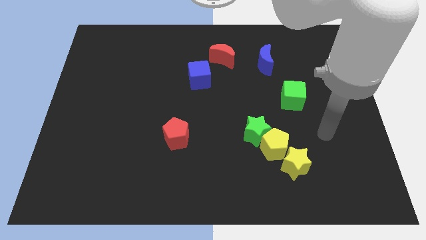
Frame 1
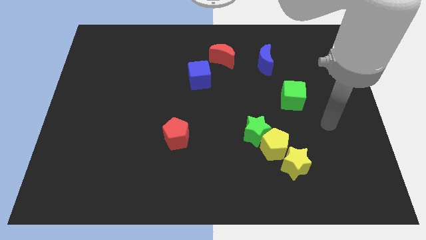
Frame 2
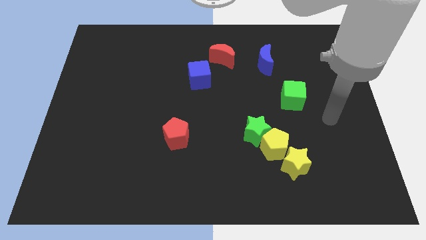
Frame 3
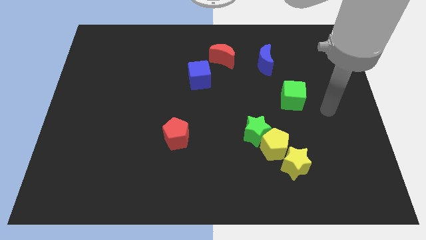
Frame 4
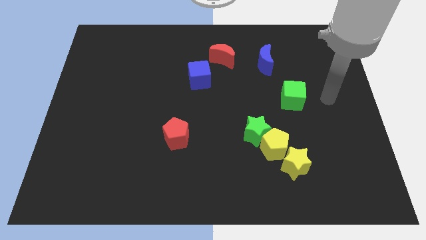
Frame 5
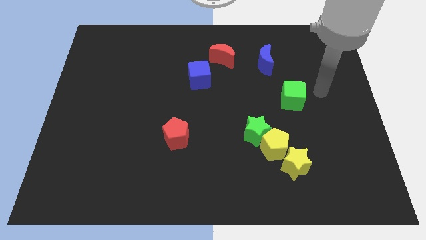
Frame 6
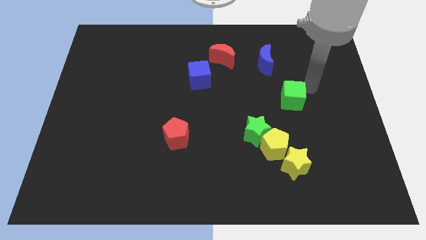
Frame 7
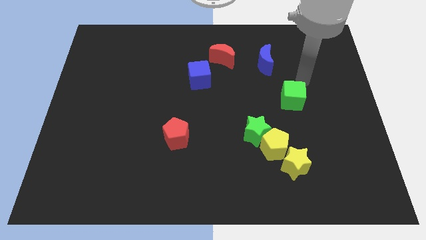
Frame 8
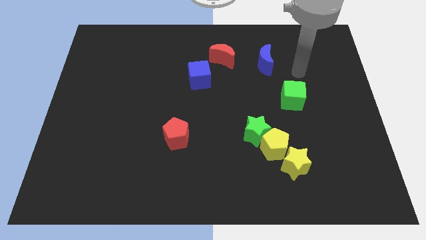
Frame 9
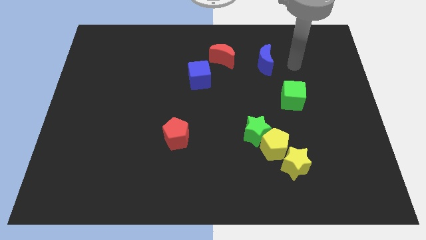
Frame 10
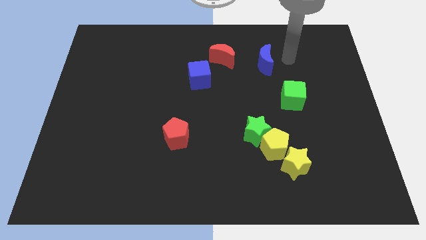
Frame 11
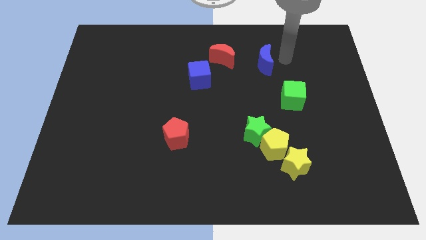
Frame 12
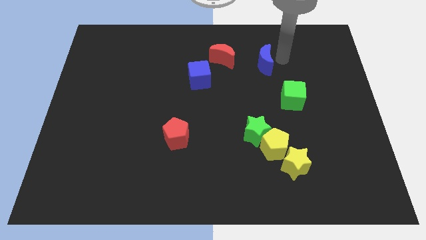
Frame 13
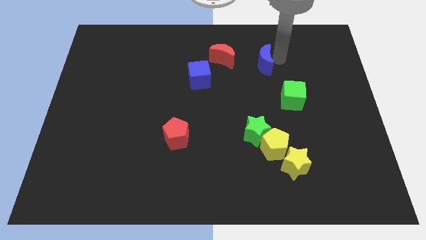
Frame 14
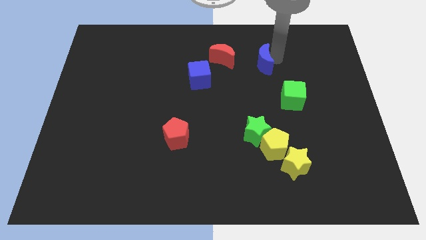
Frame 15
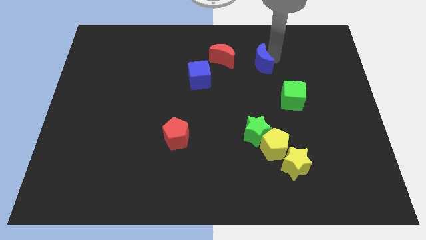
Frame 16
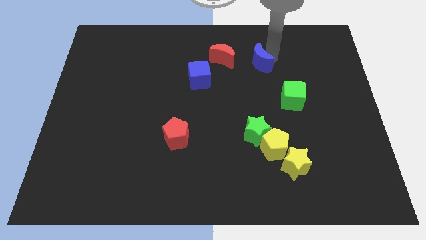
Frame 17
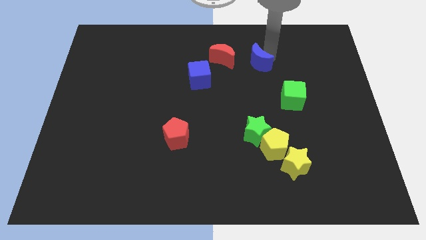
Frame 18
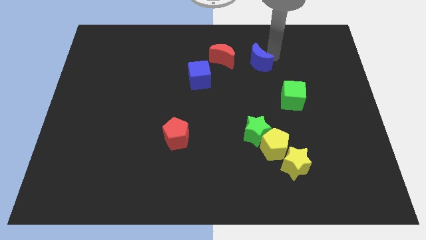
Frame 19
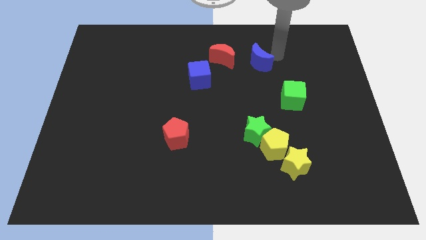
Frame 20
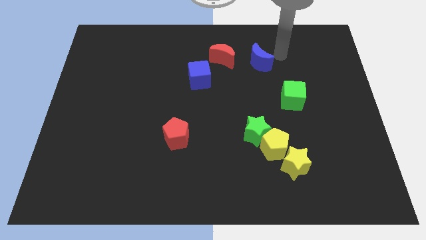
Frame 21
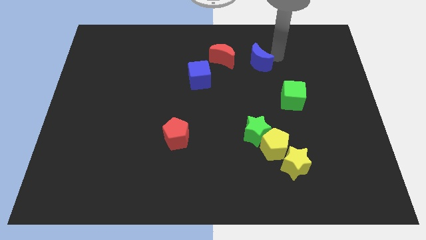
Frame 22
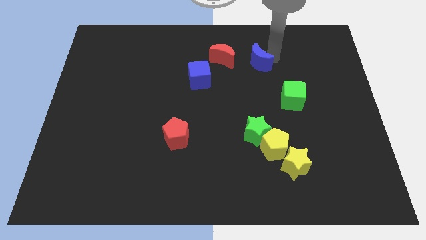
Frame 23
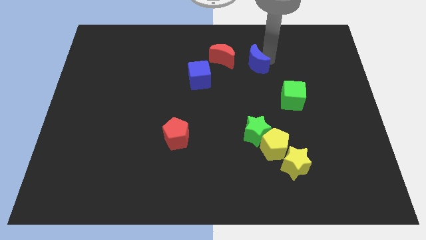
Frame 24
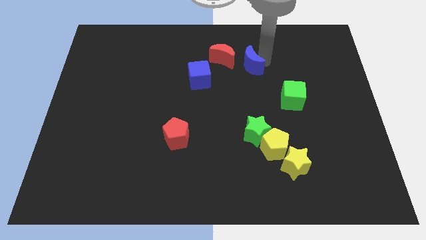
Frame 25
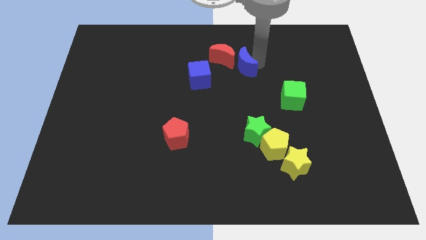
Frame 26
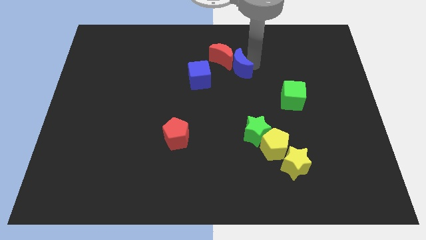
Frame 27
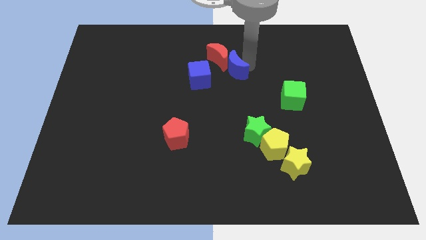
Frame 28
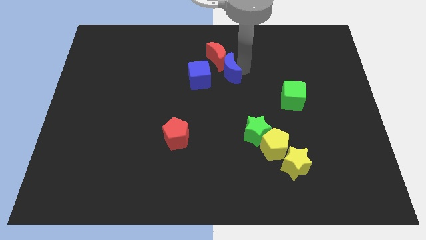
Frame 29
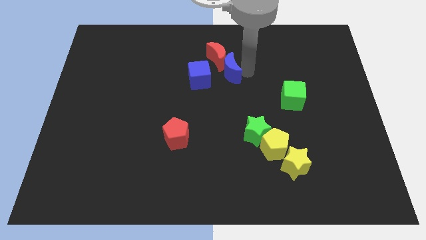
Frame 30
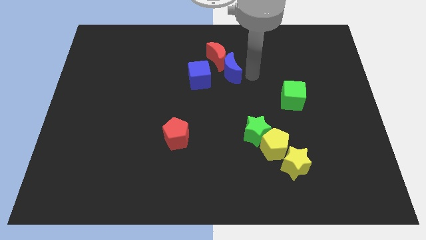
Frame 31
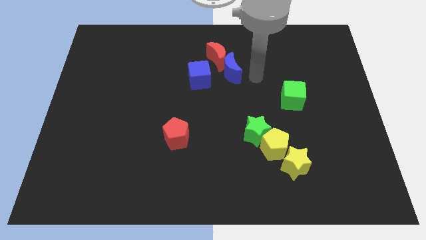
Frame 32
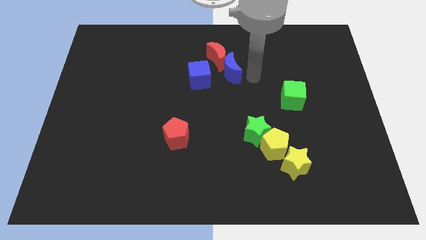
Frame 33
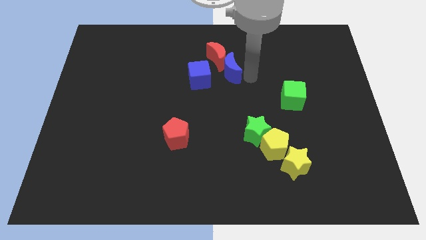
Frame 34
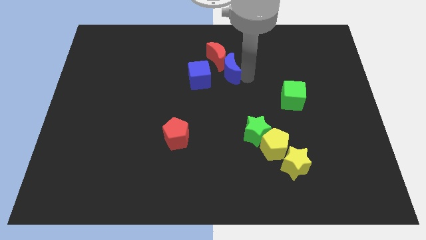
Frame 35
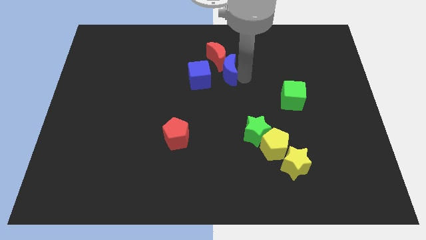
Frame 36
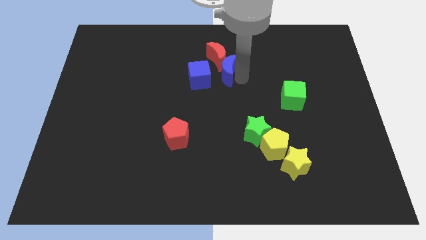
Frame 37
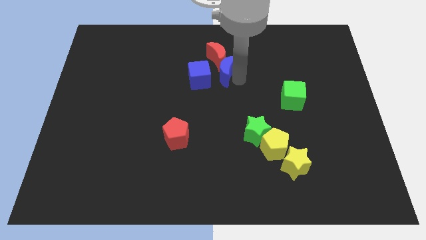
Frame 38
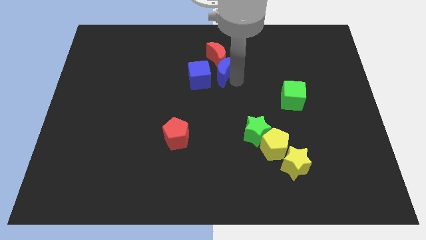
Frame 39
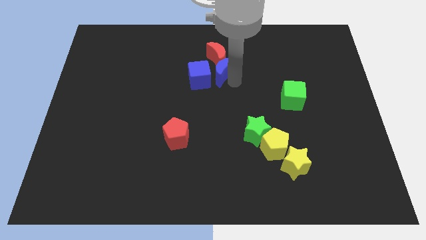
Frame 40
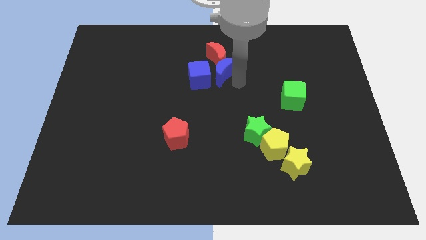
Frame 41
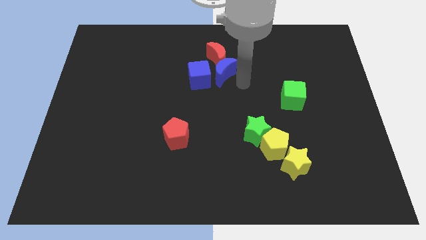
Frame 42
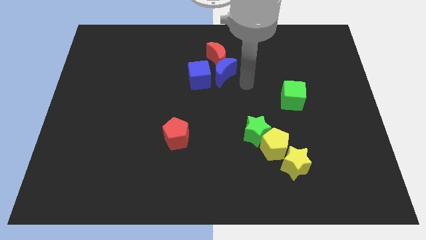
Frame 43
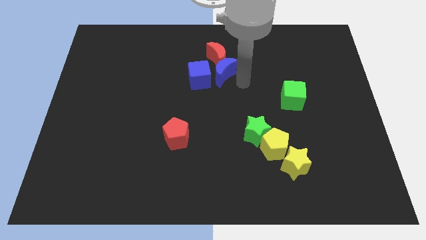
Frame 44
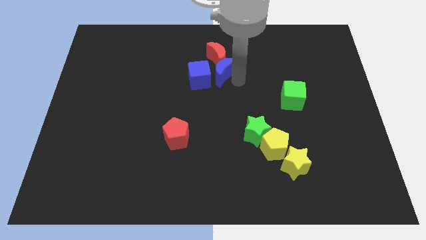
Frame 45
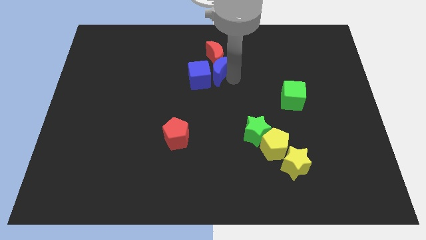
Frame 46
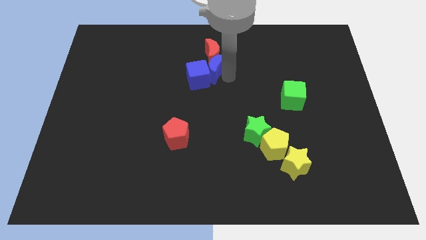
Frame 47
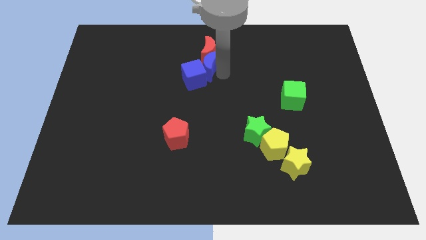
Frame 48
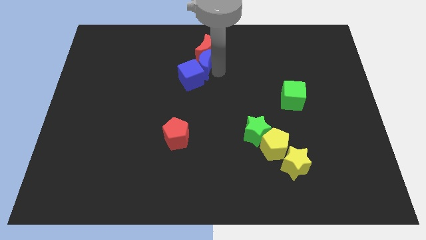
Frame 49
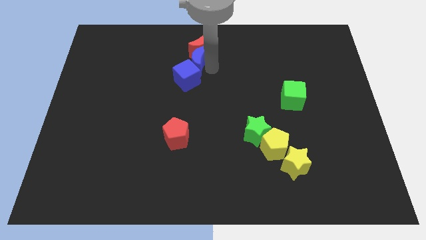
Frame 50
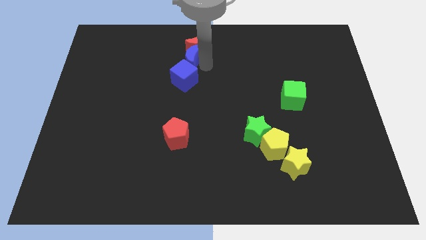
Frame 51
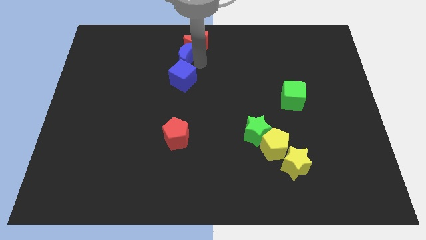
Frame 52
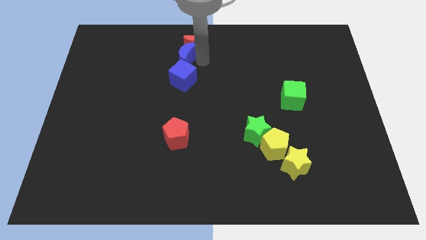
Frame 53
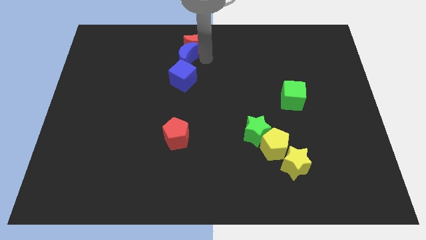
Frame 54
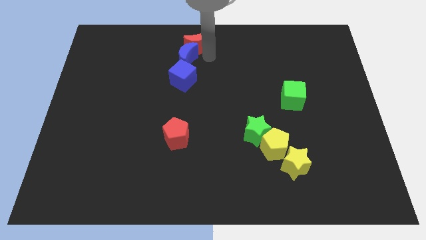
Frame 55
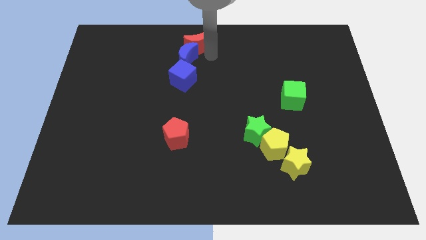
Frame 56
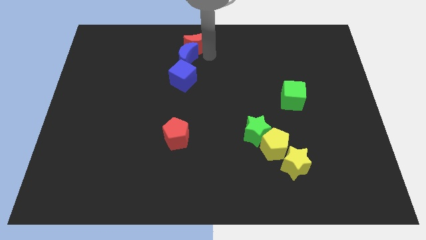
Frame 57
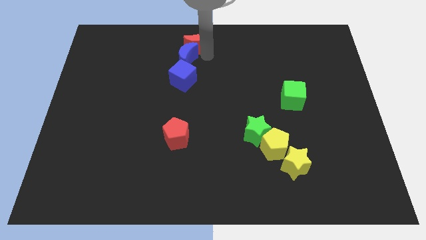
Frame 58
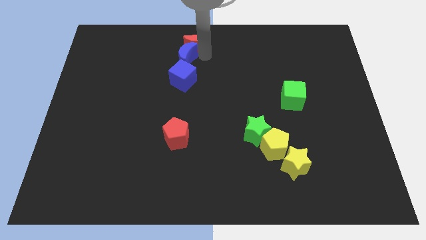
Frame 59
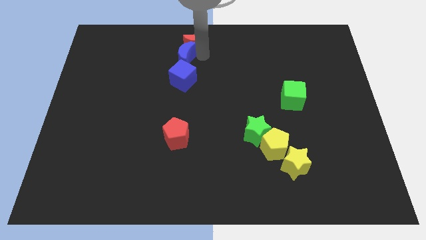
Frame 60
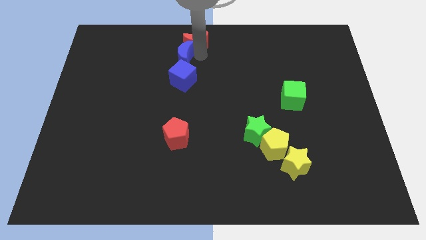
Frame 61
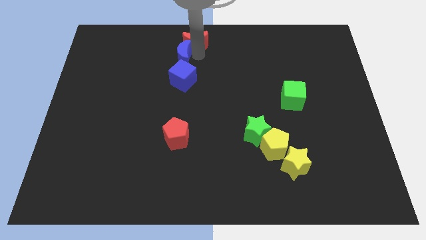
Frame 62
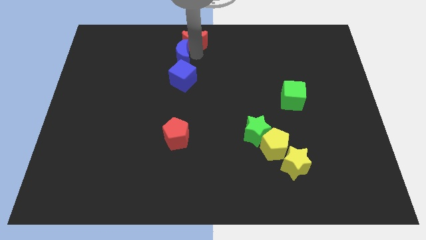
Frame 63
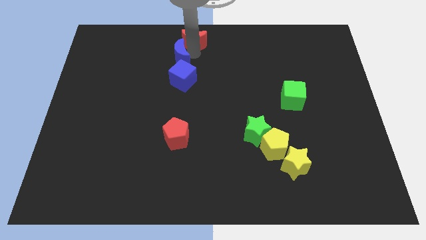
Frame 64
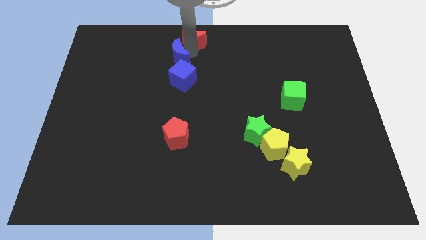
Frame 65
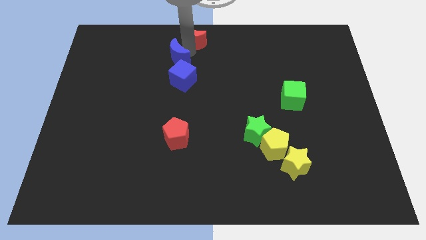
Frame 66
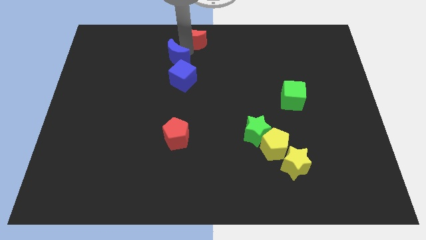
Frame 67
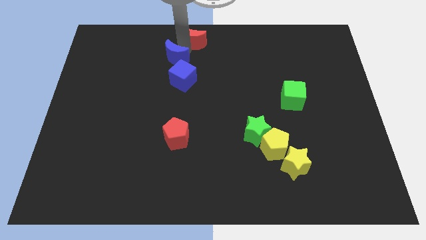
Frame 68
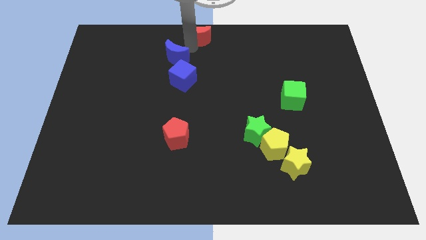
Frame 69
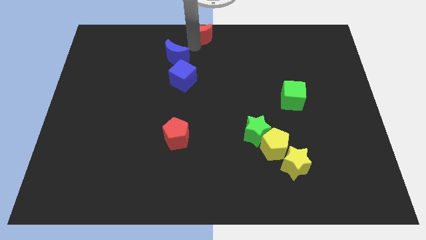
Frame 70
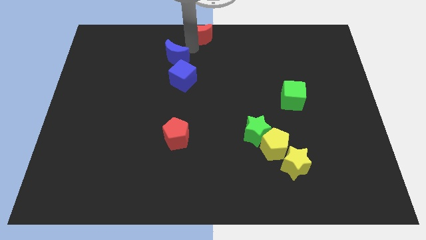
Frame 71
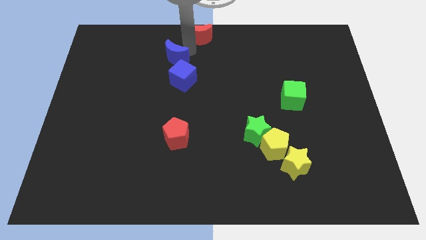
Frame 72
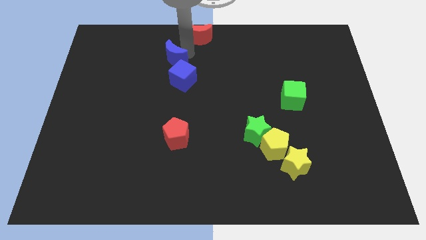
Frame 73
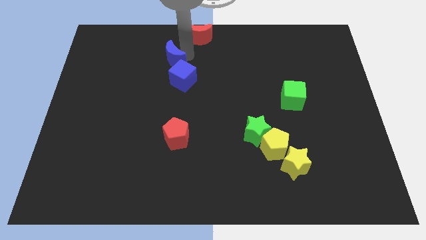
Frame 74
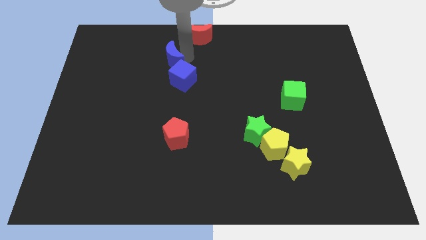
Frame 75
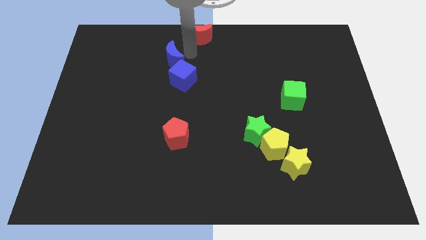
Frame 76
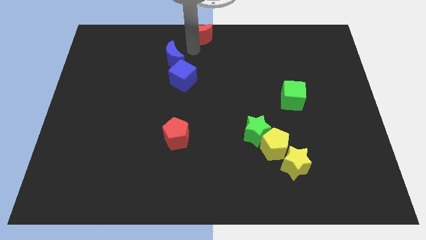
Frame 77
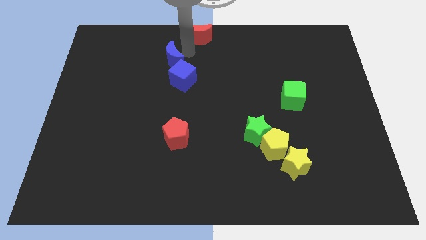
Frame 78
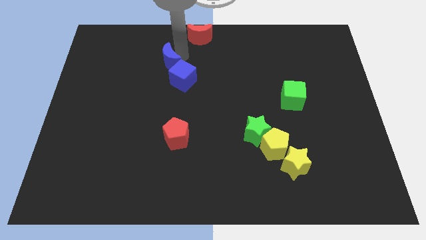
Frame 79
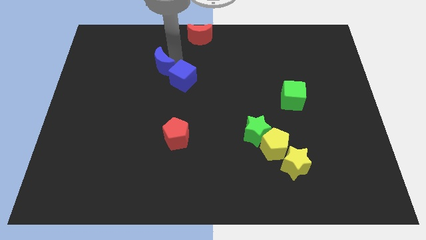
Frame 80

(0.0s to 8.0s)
slide the blue moon left of the blue cube
